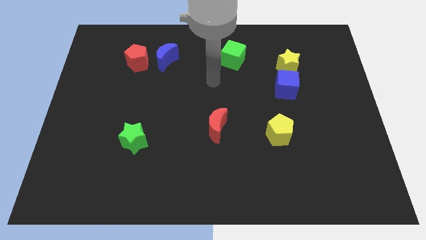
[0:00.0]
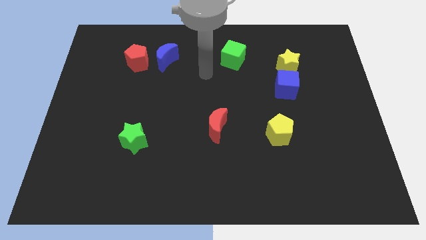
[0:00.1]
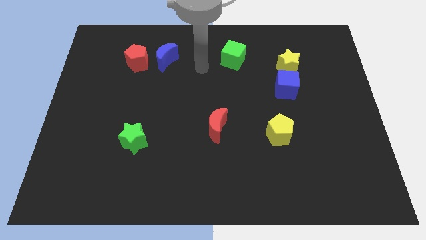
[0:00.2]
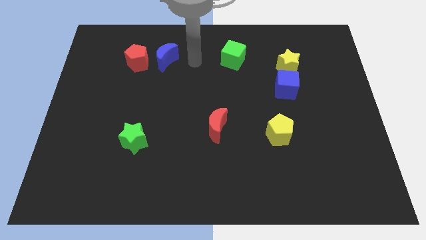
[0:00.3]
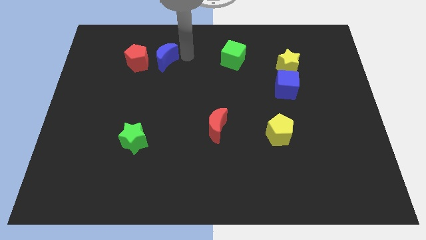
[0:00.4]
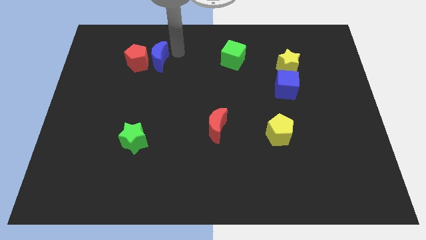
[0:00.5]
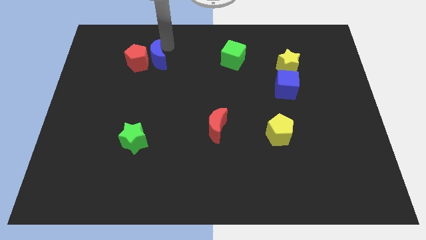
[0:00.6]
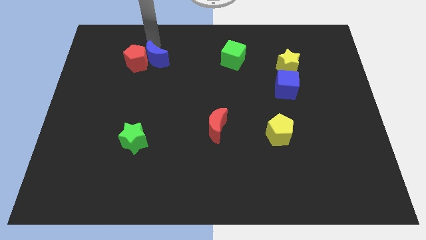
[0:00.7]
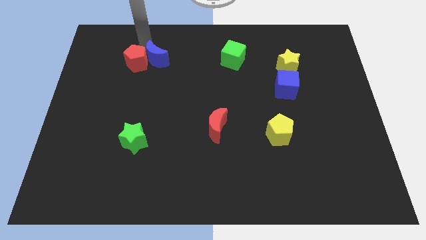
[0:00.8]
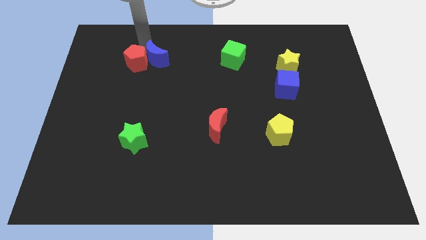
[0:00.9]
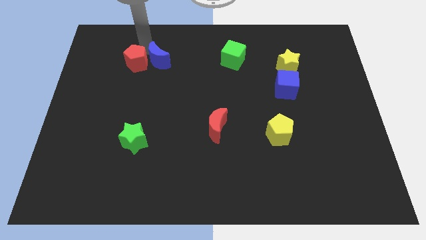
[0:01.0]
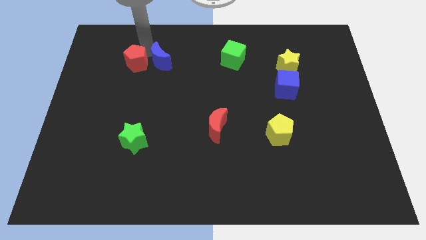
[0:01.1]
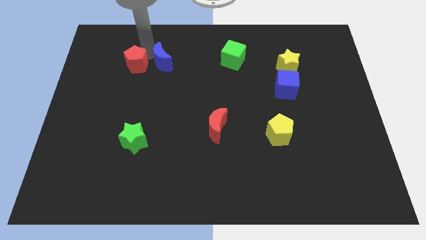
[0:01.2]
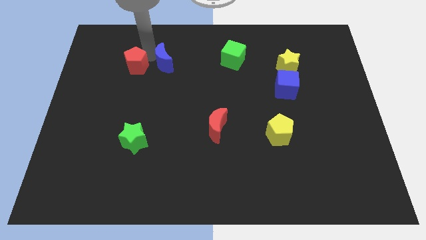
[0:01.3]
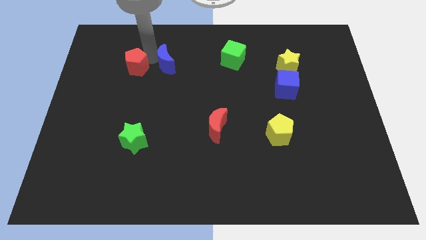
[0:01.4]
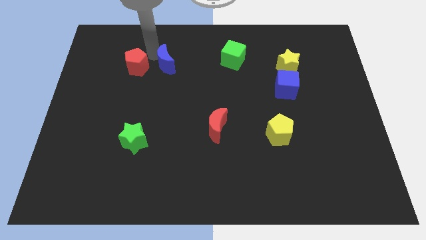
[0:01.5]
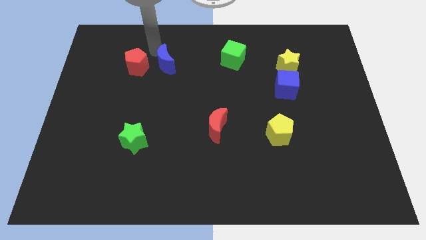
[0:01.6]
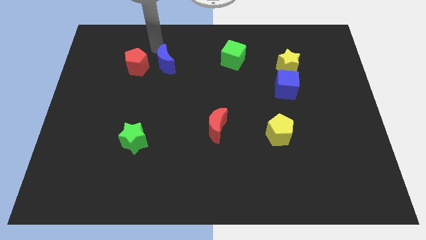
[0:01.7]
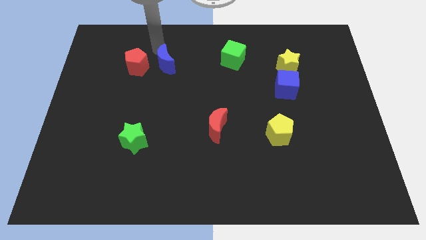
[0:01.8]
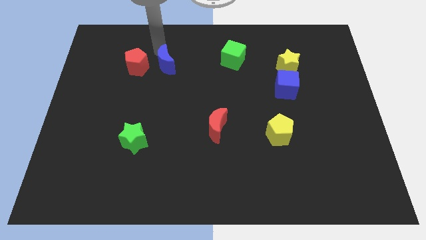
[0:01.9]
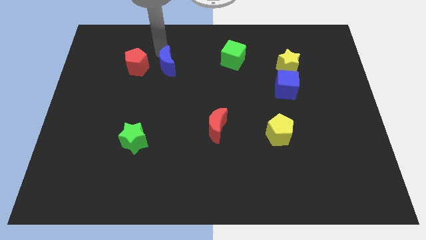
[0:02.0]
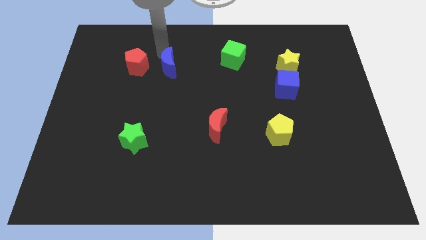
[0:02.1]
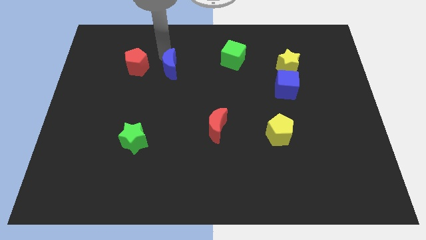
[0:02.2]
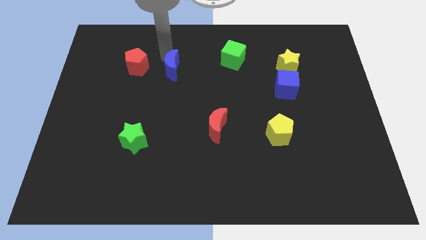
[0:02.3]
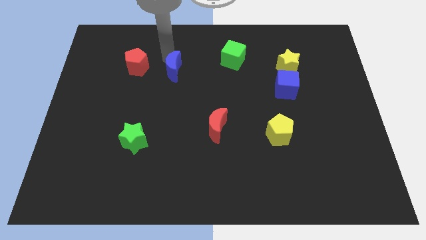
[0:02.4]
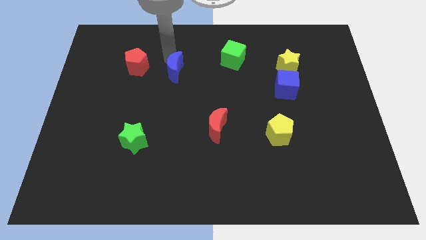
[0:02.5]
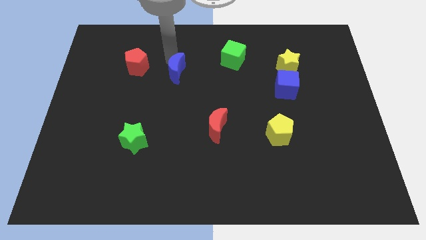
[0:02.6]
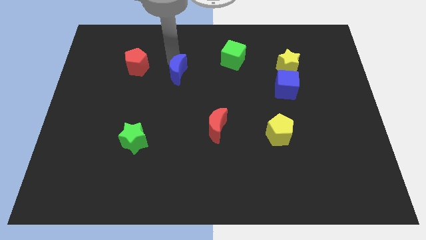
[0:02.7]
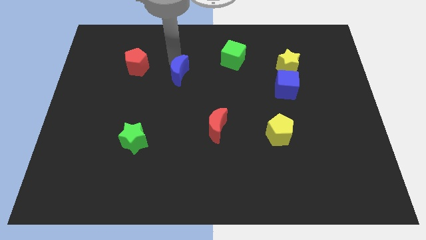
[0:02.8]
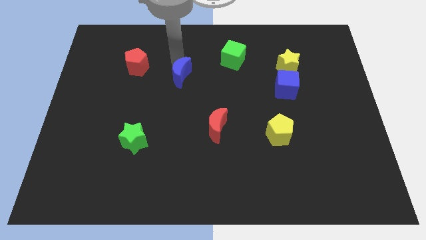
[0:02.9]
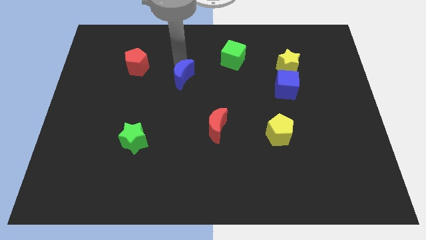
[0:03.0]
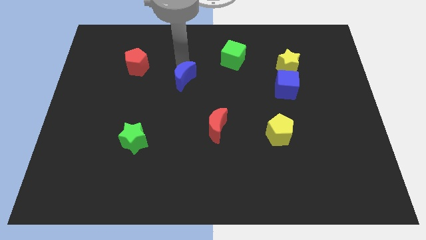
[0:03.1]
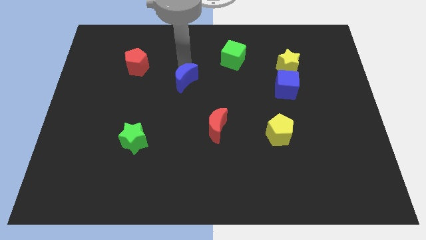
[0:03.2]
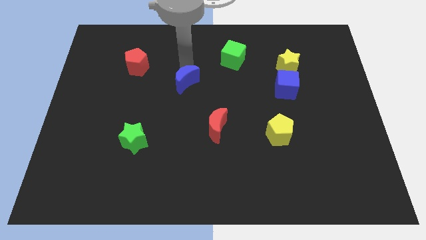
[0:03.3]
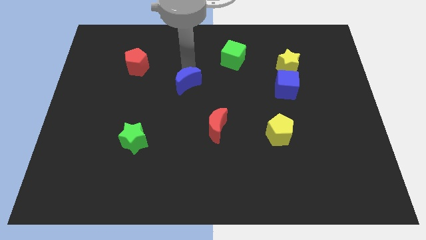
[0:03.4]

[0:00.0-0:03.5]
push the blue moon down somewhat

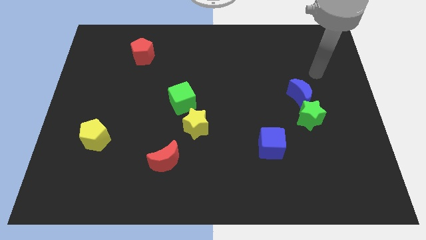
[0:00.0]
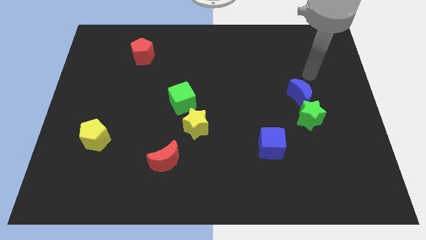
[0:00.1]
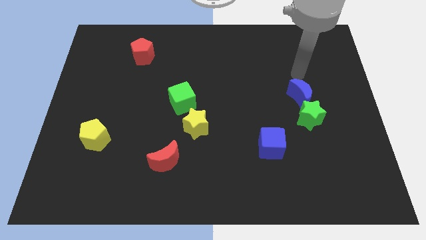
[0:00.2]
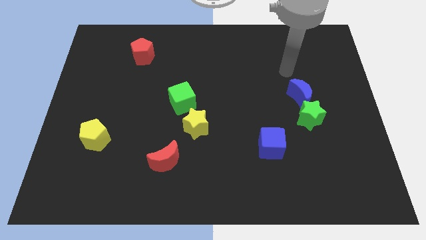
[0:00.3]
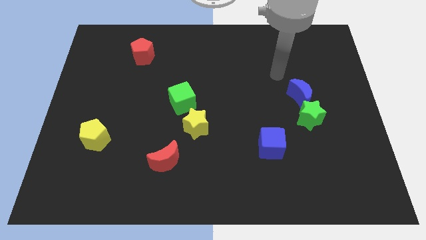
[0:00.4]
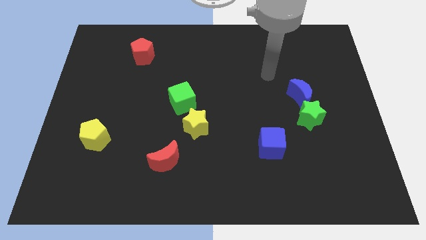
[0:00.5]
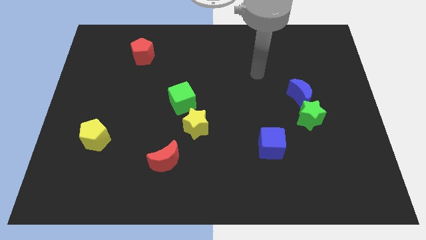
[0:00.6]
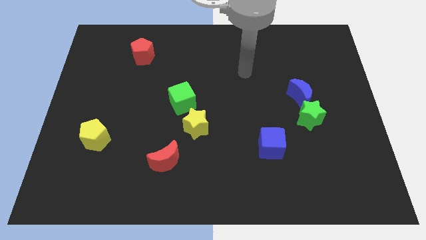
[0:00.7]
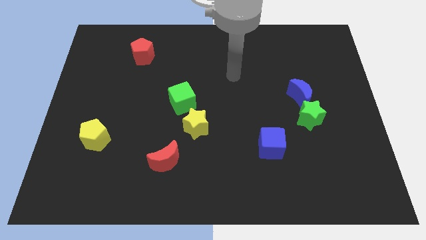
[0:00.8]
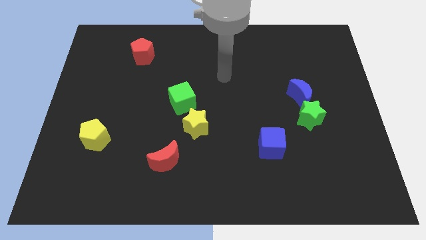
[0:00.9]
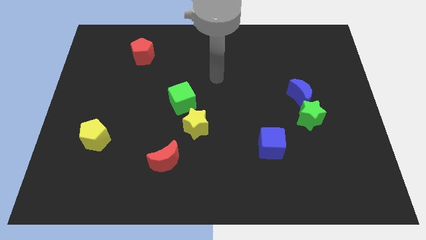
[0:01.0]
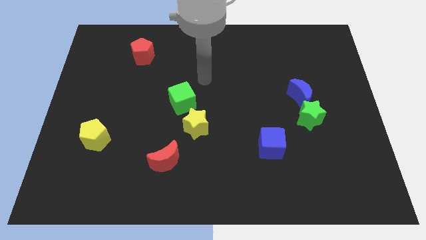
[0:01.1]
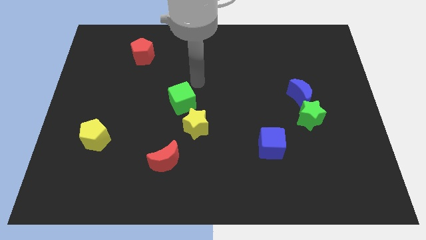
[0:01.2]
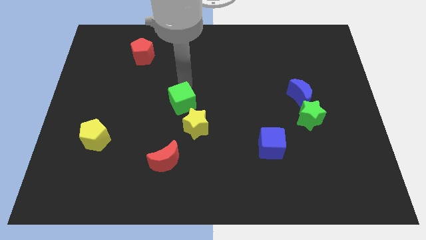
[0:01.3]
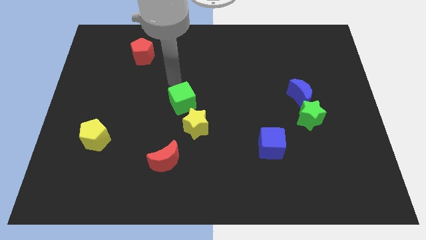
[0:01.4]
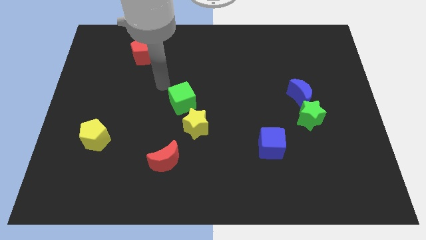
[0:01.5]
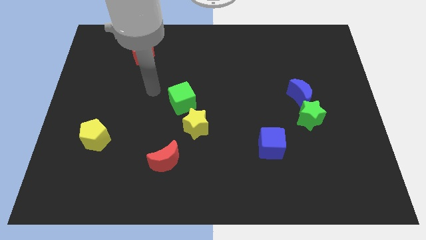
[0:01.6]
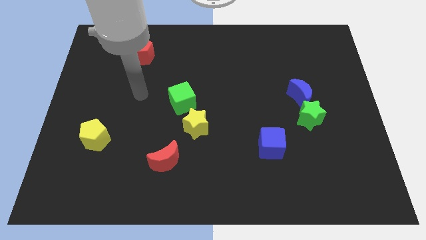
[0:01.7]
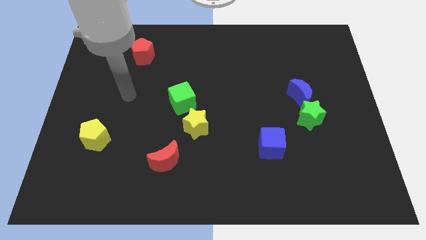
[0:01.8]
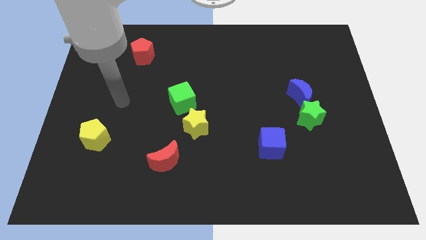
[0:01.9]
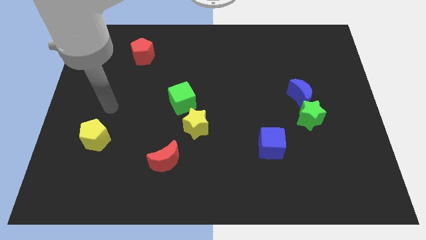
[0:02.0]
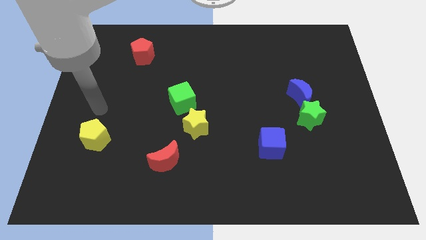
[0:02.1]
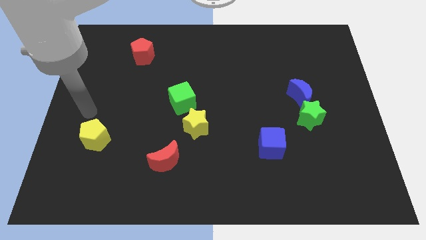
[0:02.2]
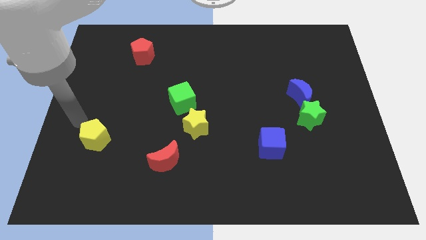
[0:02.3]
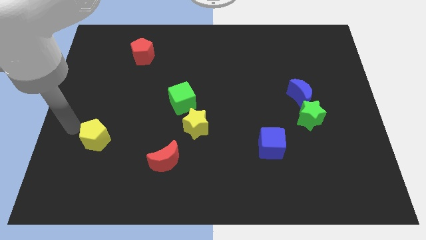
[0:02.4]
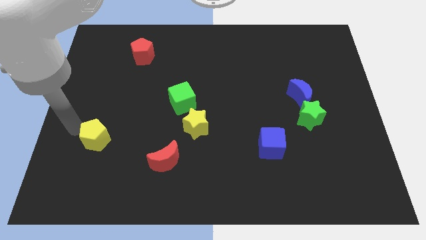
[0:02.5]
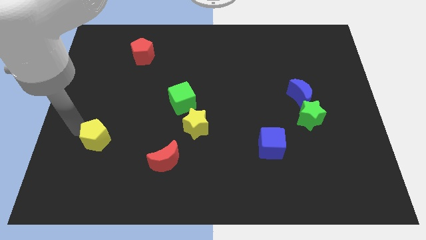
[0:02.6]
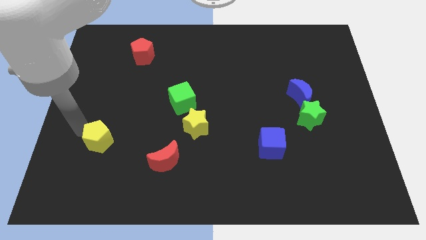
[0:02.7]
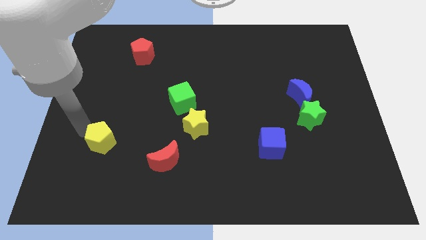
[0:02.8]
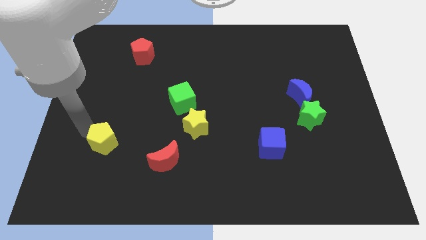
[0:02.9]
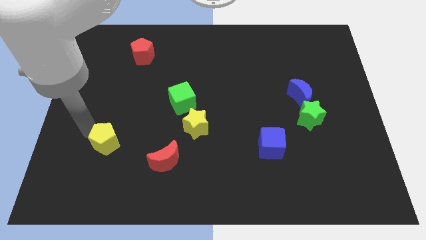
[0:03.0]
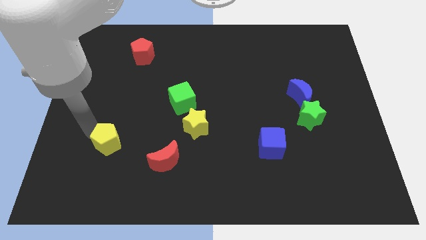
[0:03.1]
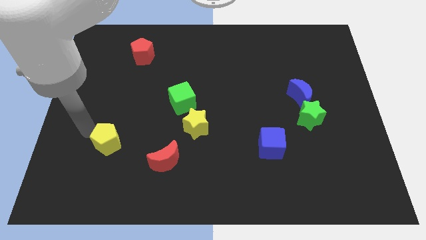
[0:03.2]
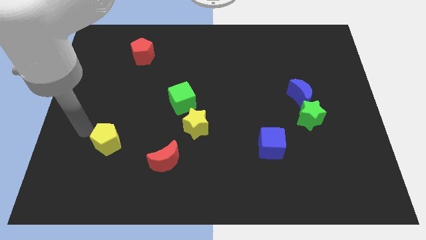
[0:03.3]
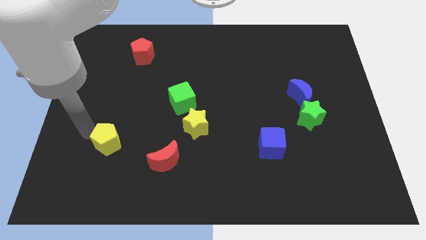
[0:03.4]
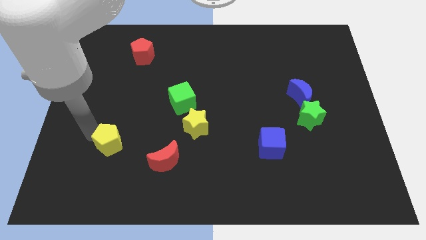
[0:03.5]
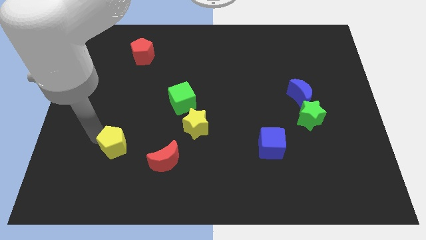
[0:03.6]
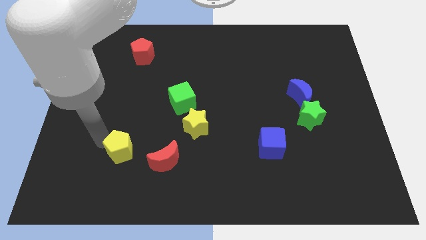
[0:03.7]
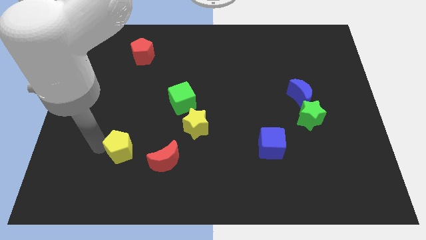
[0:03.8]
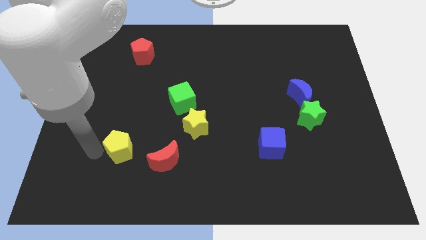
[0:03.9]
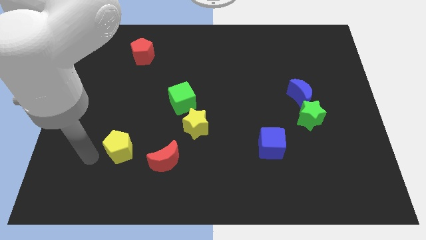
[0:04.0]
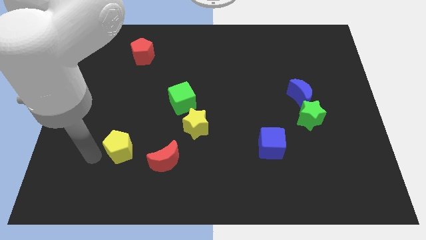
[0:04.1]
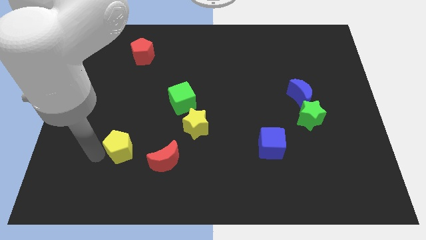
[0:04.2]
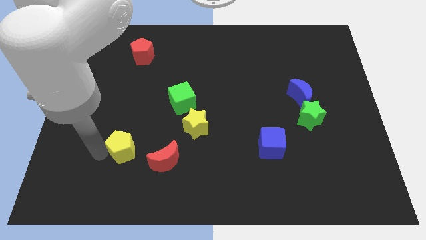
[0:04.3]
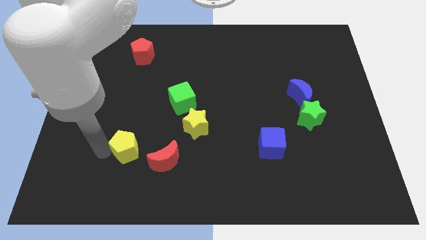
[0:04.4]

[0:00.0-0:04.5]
push the yellow pentagon somewhat right

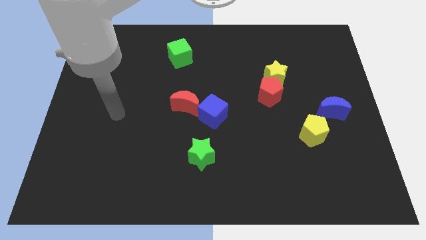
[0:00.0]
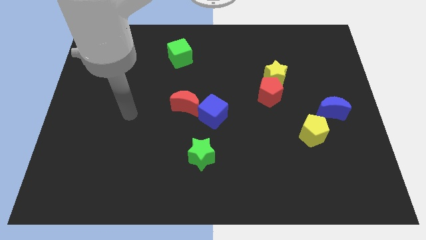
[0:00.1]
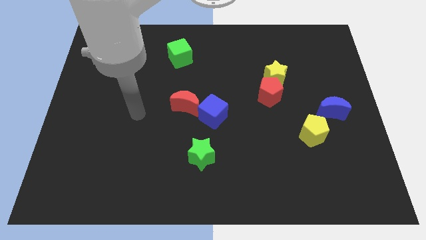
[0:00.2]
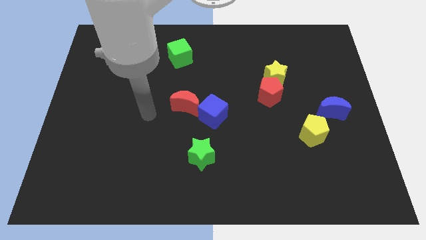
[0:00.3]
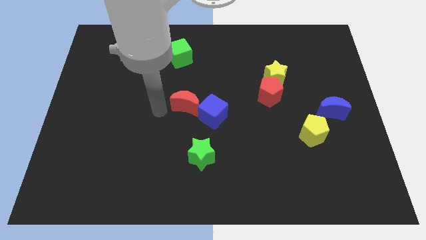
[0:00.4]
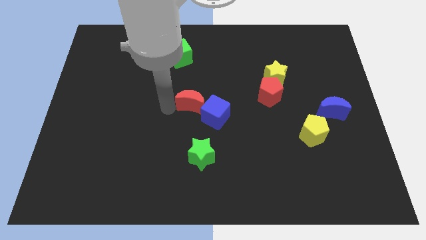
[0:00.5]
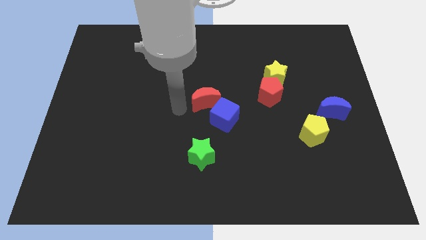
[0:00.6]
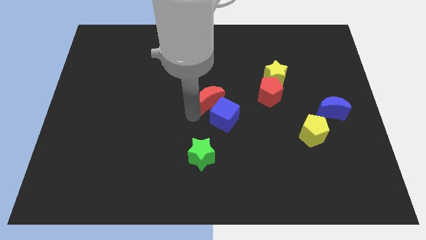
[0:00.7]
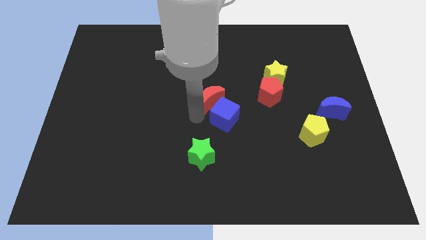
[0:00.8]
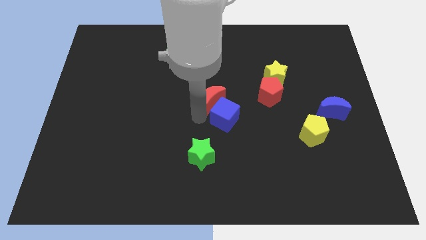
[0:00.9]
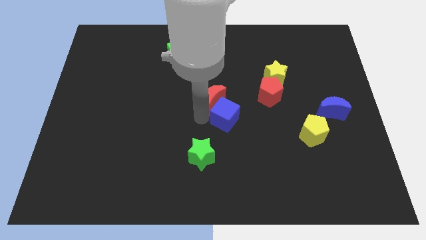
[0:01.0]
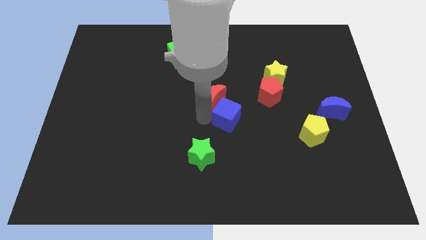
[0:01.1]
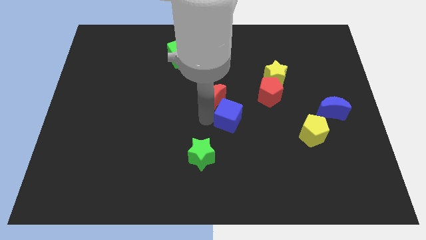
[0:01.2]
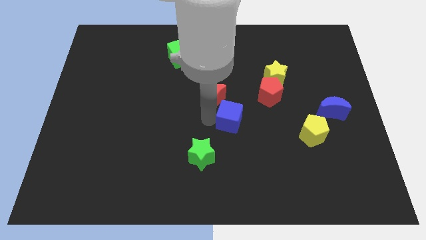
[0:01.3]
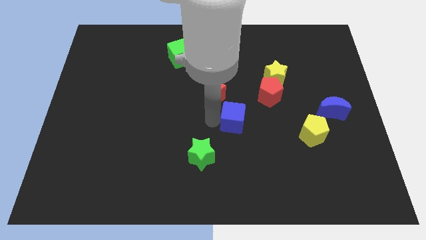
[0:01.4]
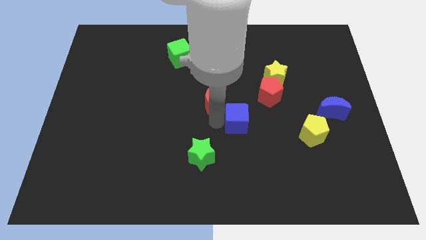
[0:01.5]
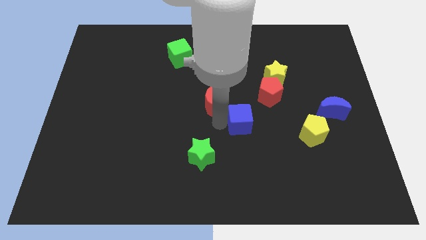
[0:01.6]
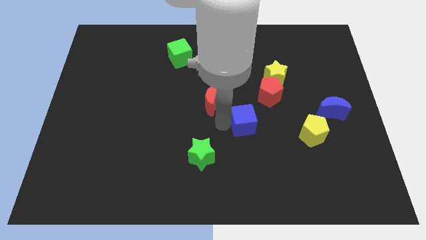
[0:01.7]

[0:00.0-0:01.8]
push the blue cube a little bit right
